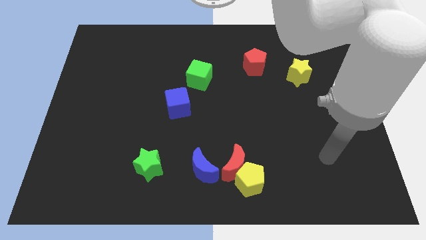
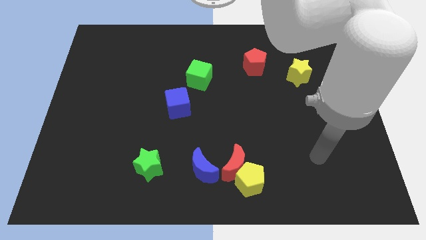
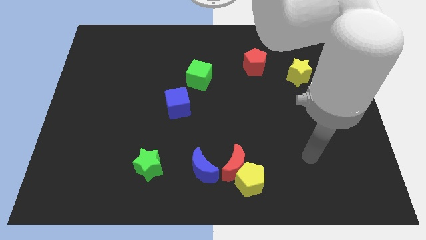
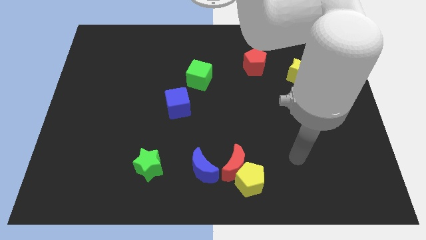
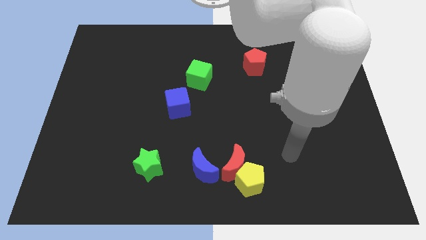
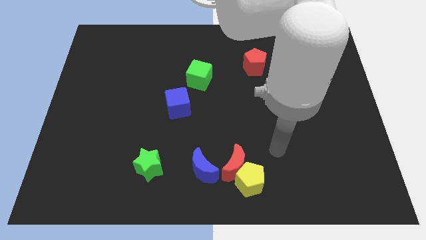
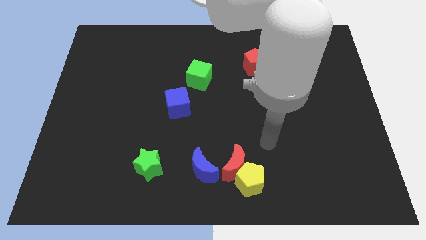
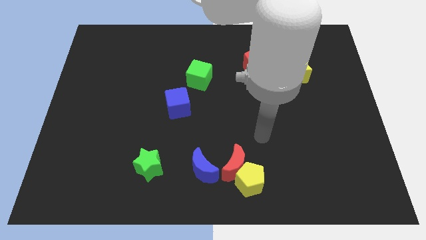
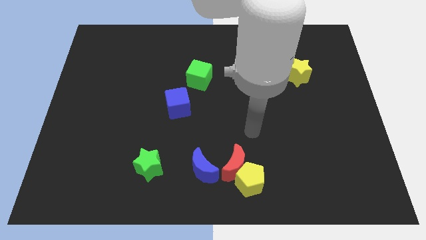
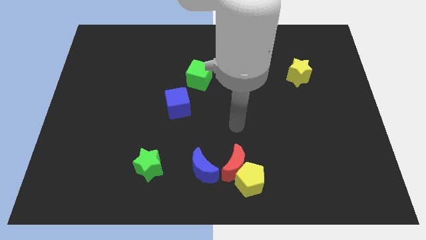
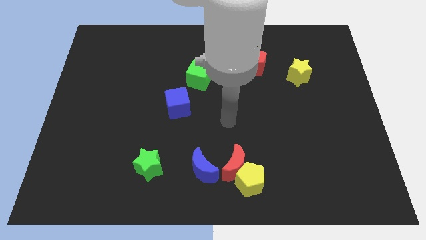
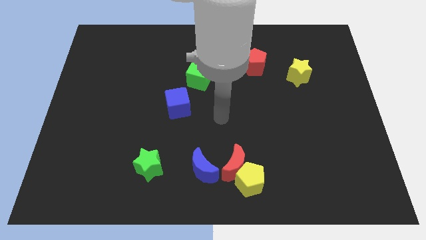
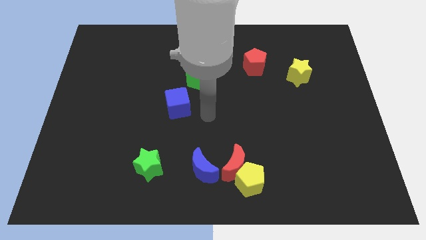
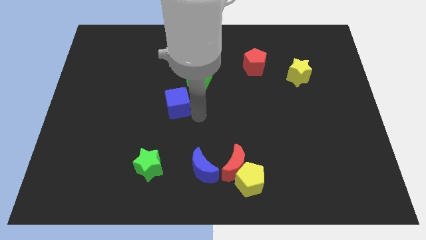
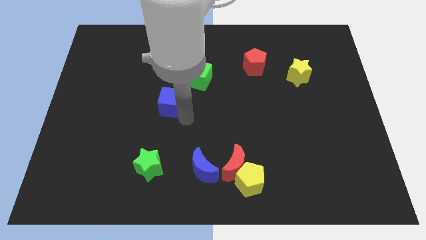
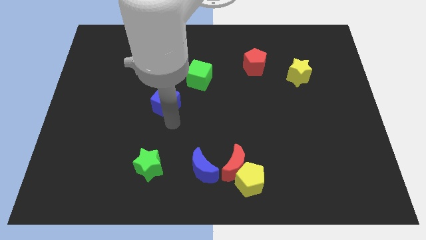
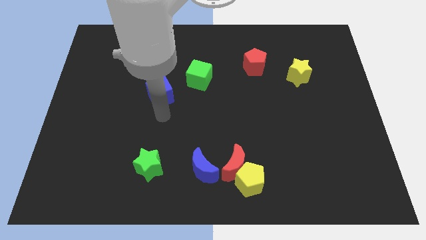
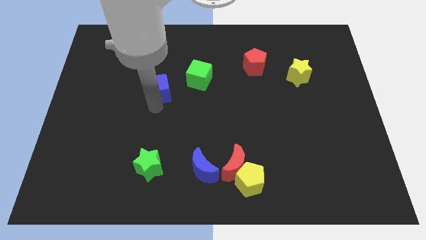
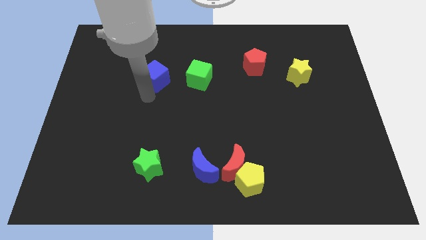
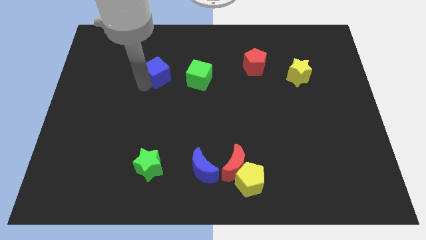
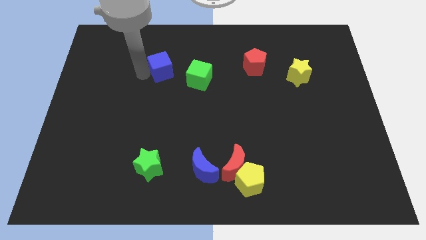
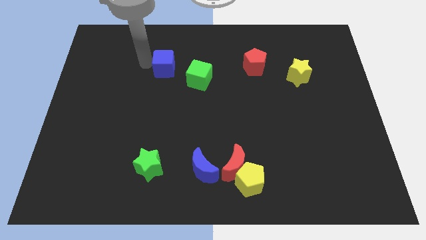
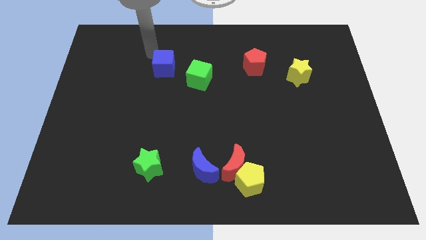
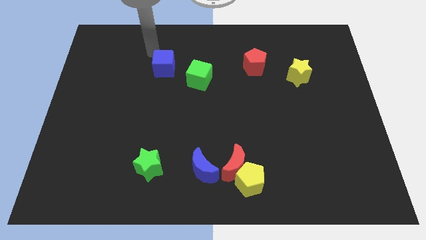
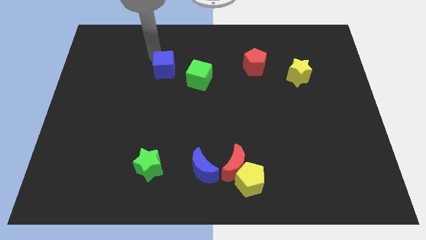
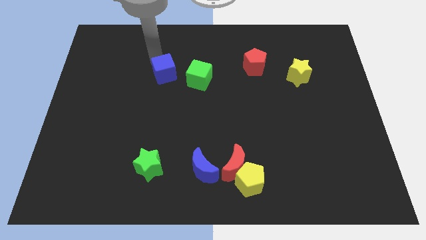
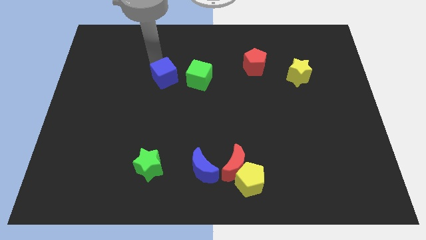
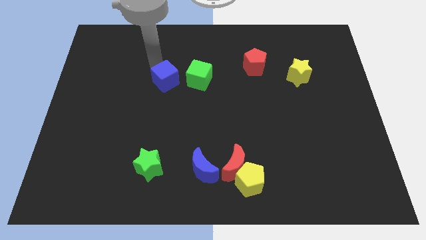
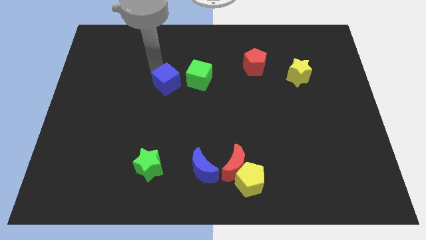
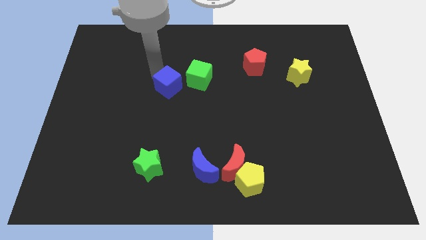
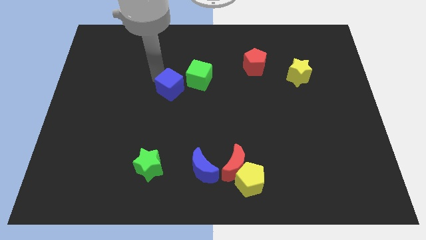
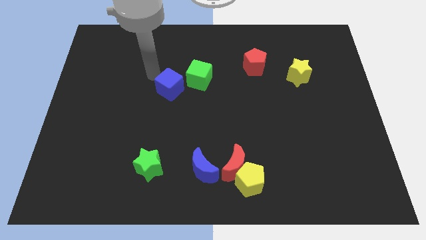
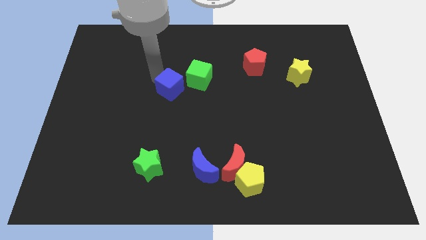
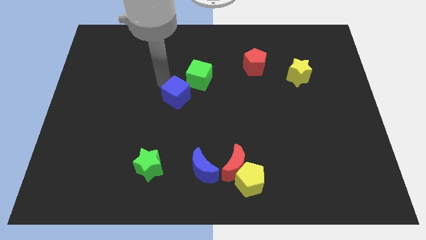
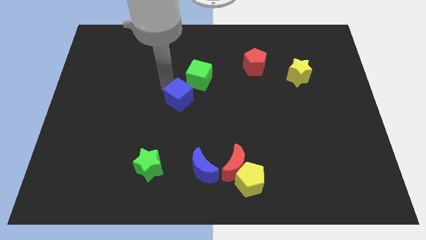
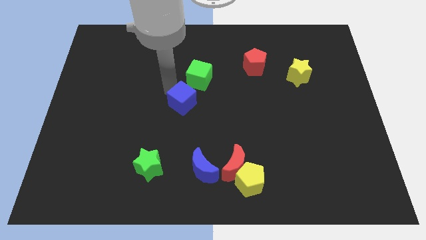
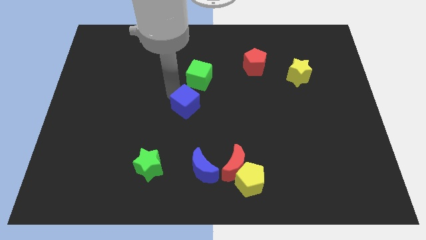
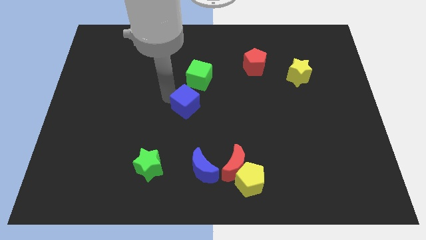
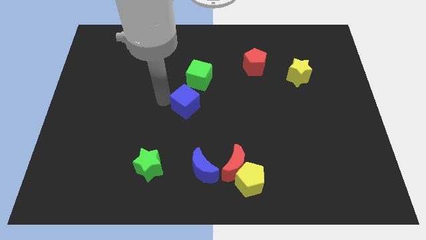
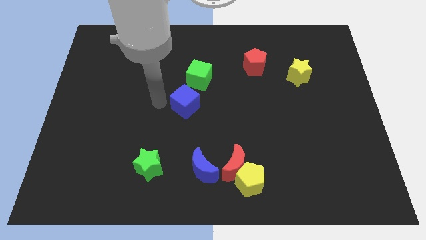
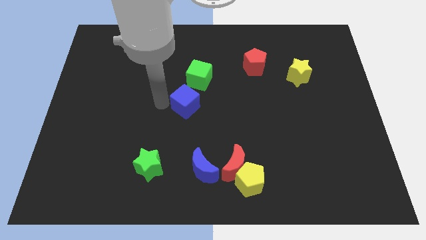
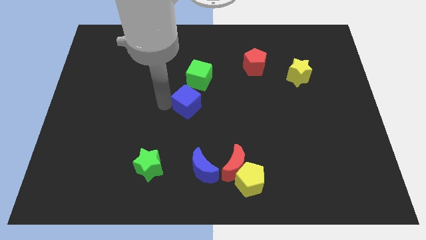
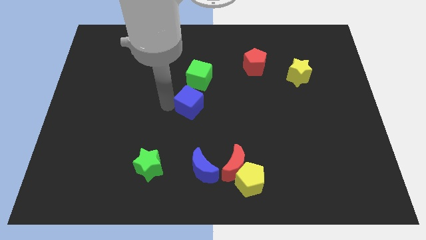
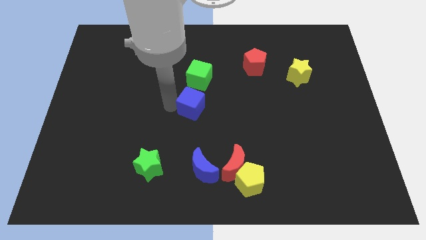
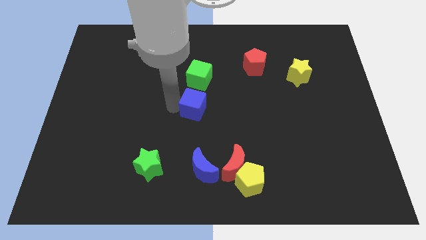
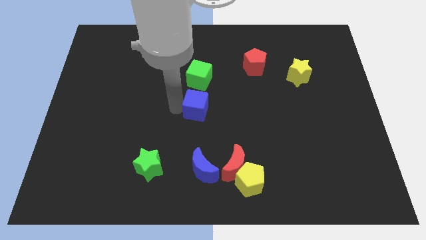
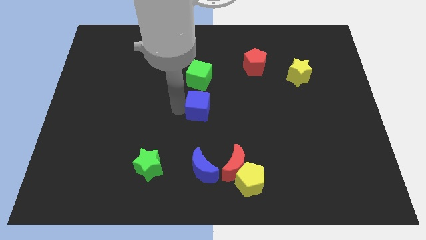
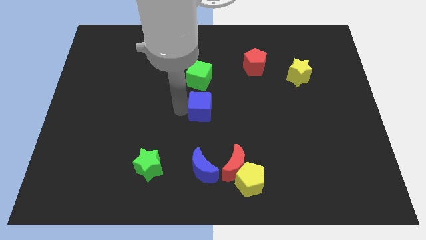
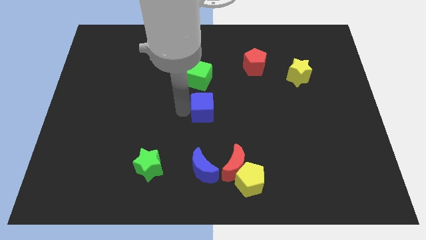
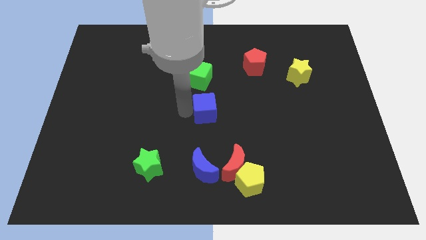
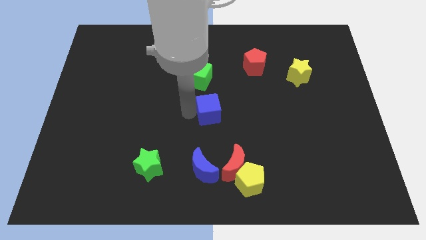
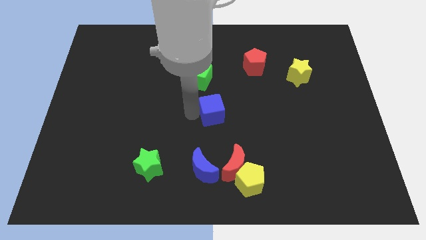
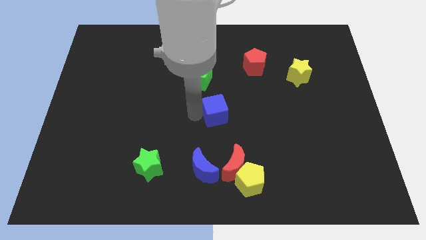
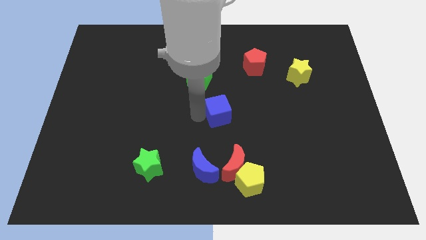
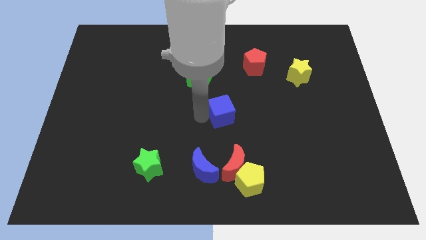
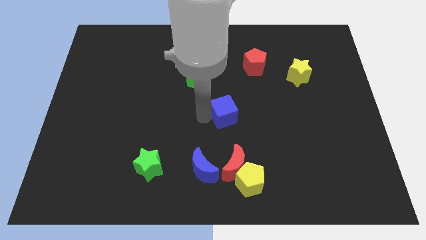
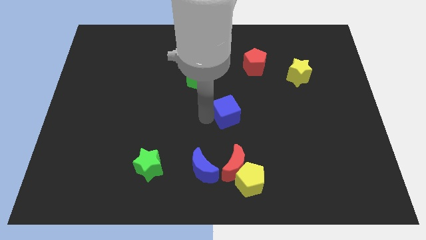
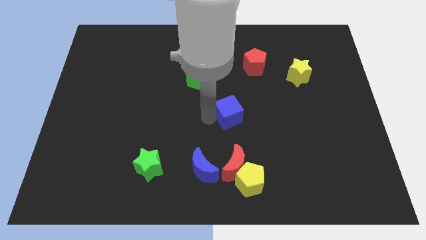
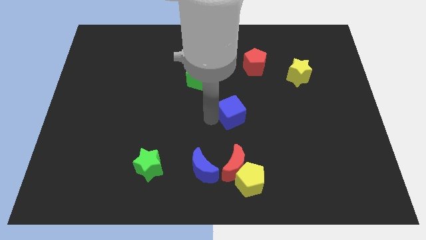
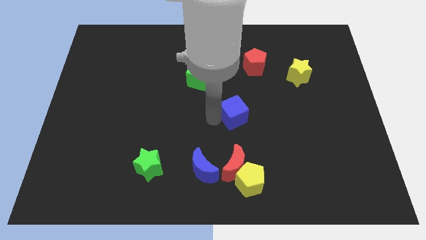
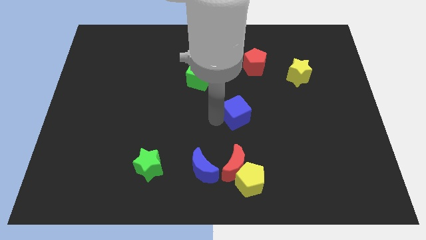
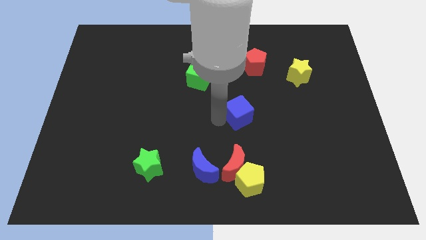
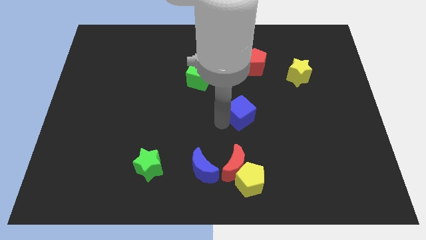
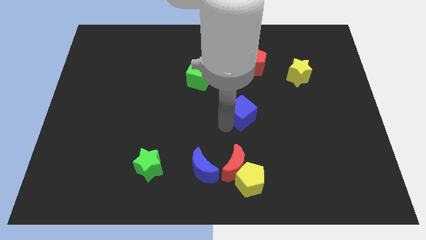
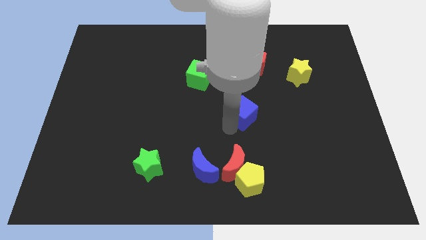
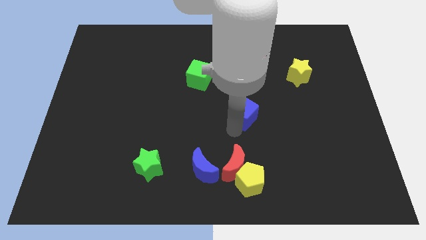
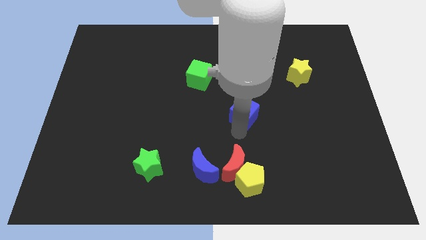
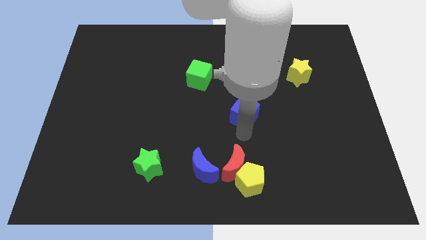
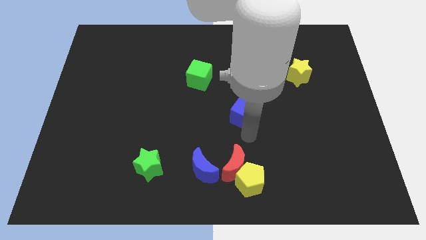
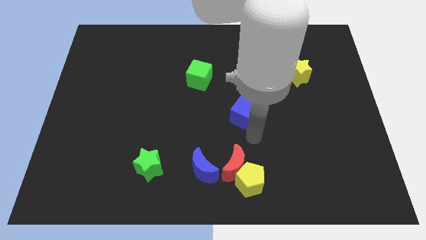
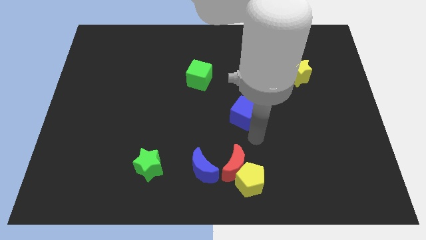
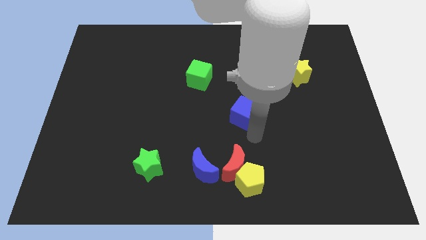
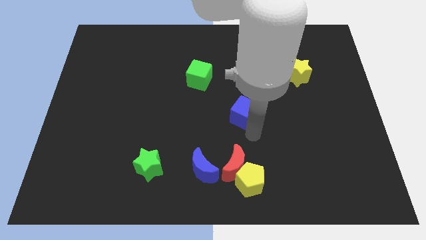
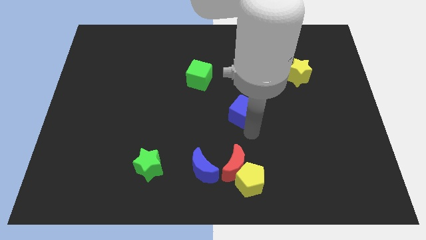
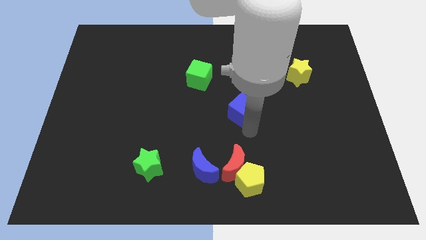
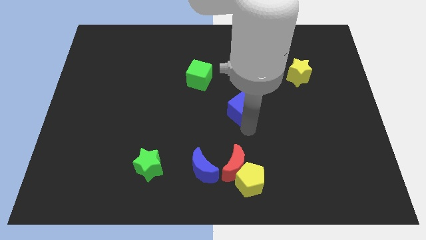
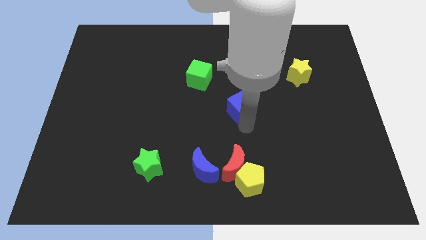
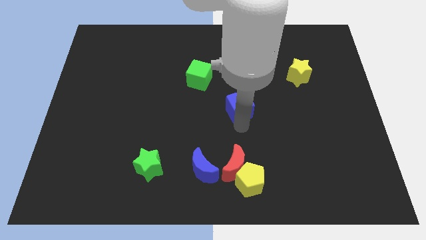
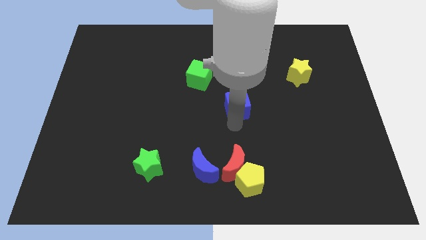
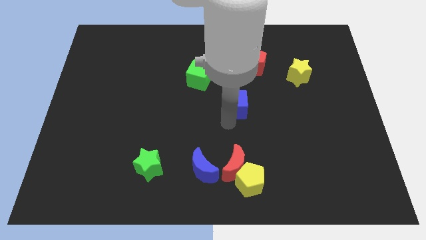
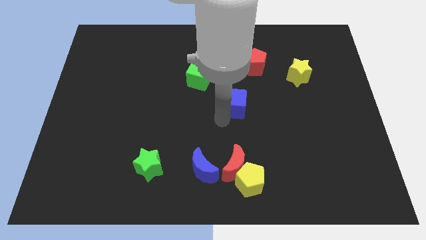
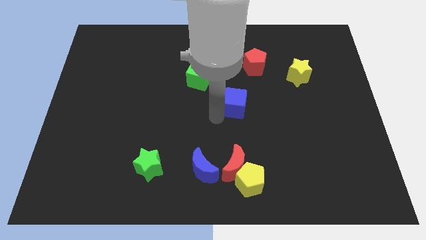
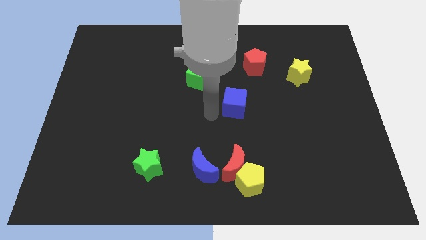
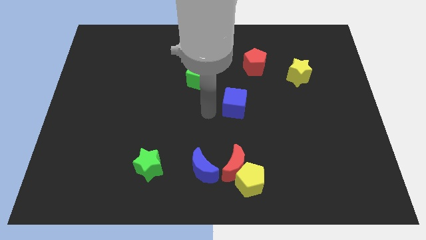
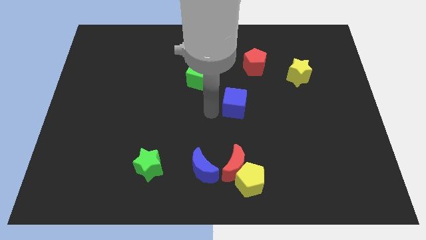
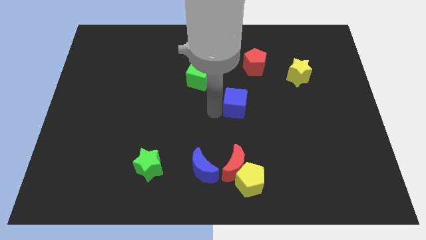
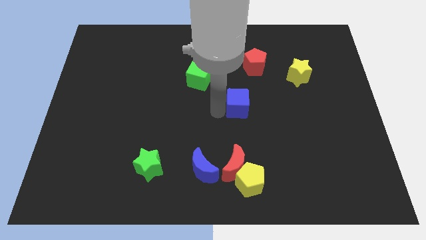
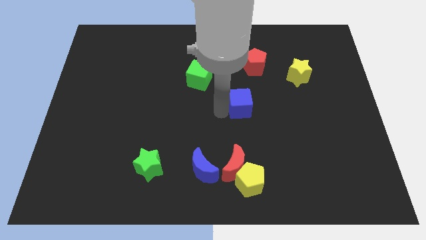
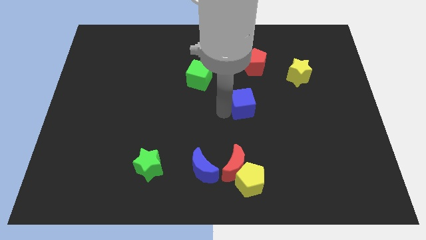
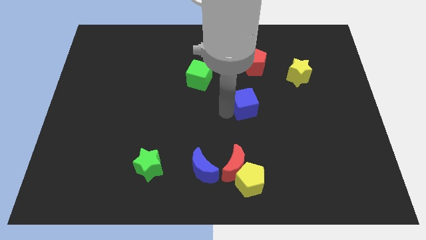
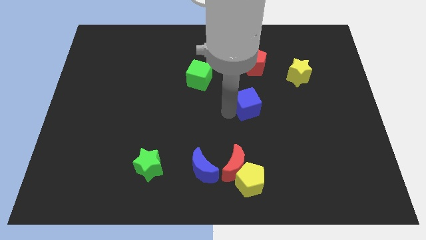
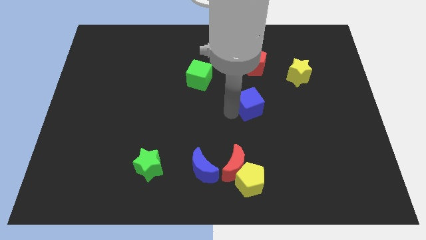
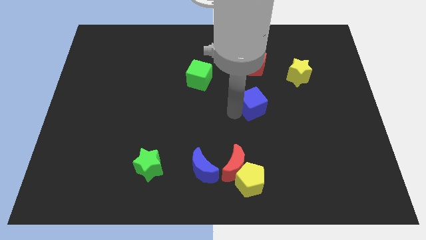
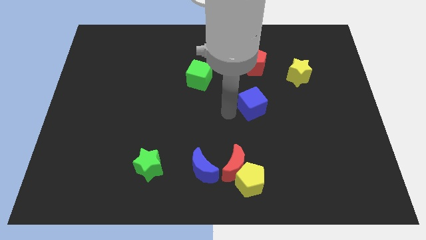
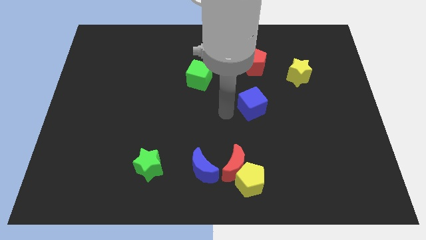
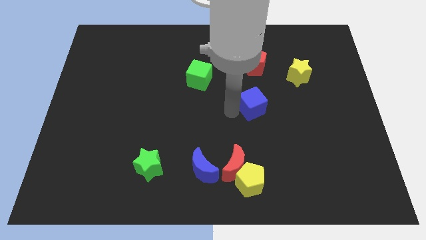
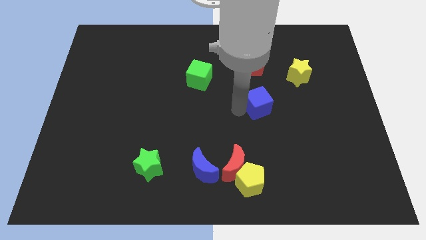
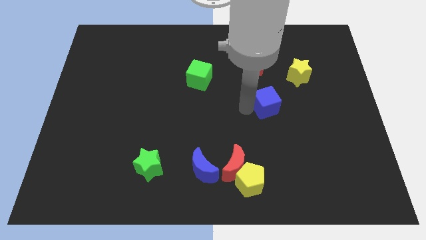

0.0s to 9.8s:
move the blue cube to the right
